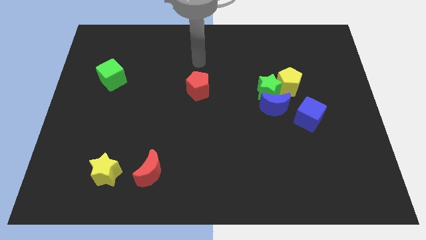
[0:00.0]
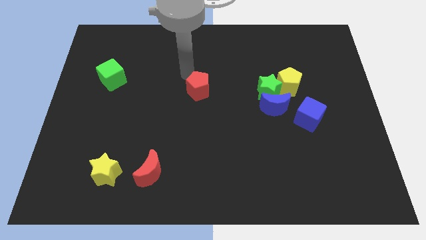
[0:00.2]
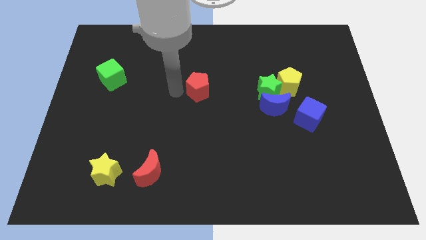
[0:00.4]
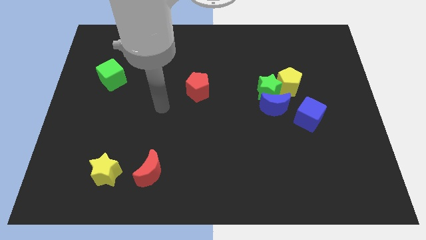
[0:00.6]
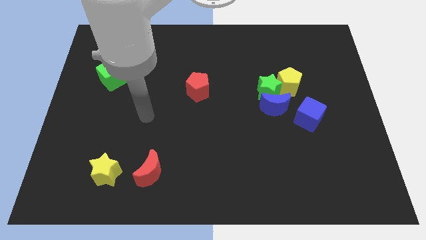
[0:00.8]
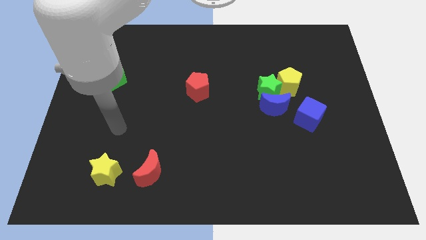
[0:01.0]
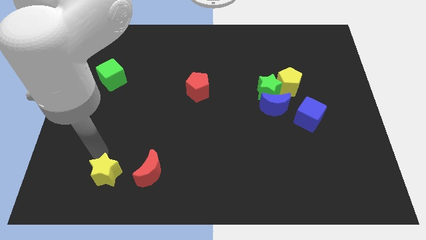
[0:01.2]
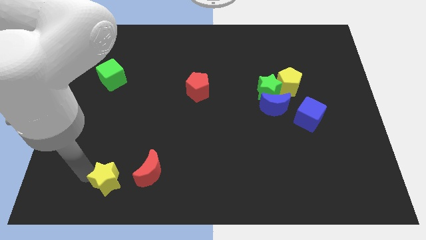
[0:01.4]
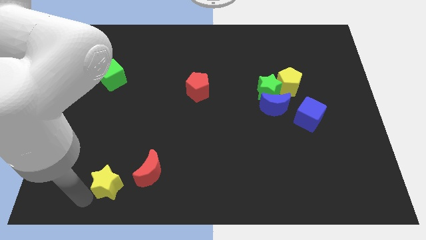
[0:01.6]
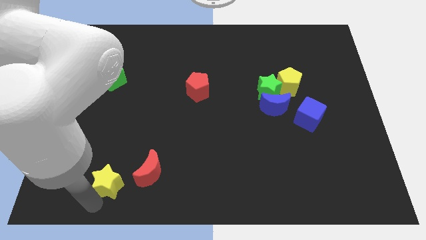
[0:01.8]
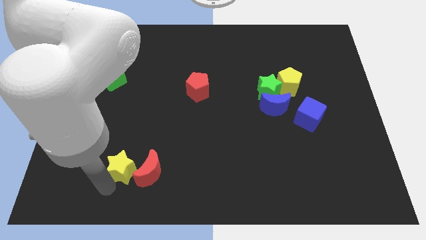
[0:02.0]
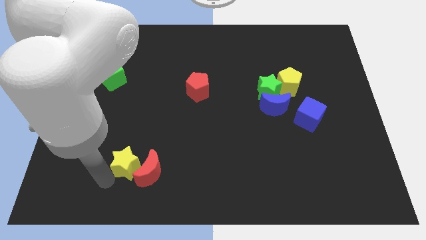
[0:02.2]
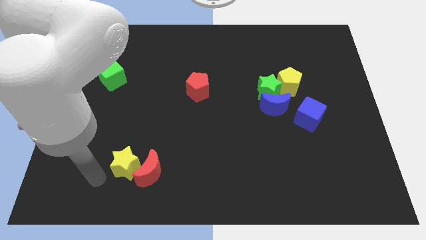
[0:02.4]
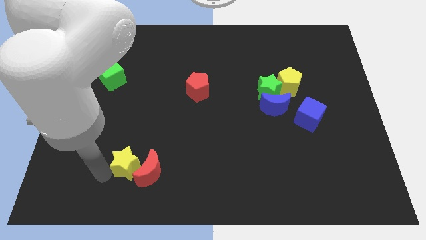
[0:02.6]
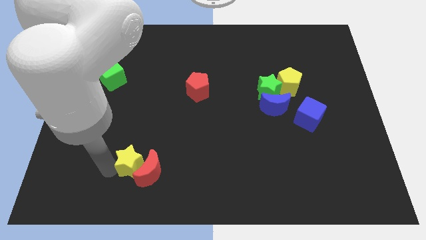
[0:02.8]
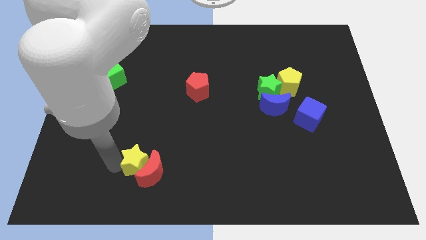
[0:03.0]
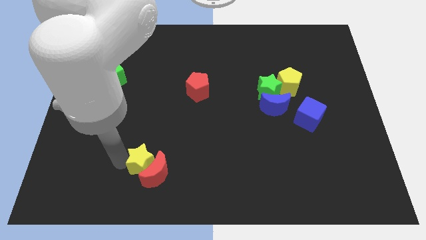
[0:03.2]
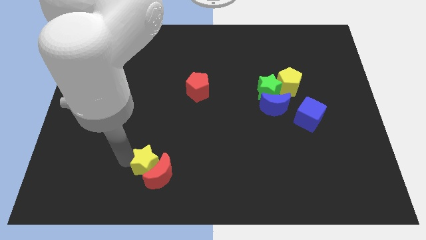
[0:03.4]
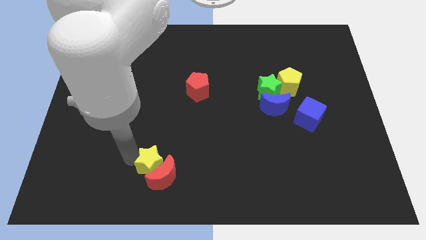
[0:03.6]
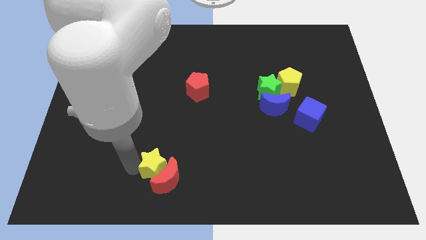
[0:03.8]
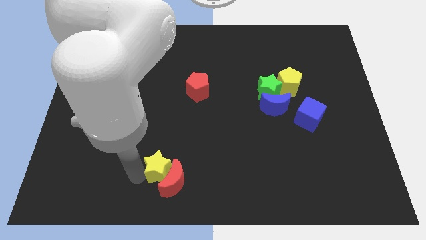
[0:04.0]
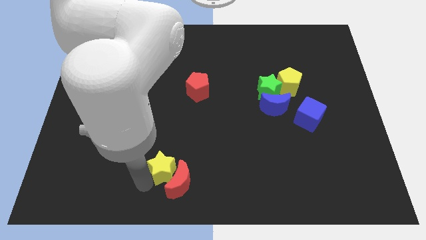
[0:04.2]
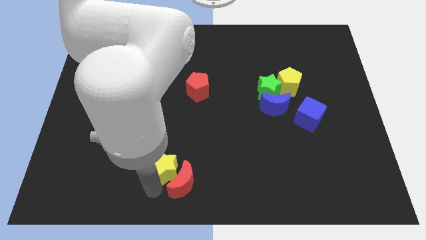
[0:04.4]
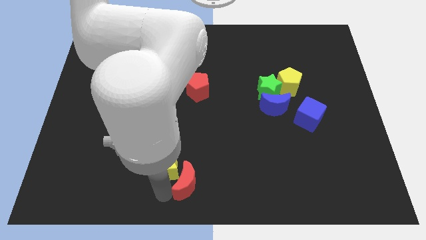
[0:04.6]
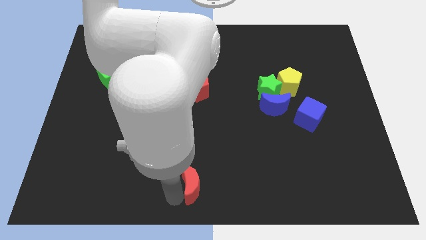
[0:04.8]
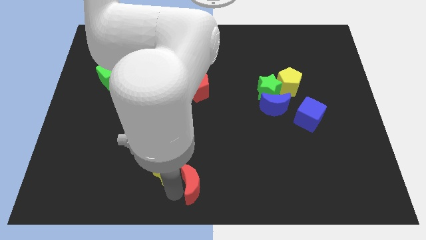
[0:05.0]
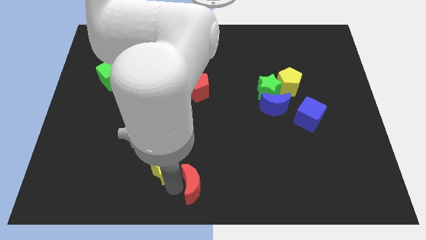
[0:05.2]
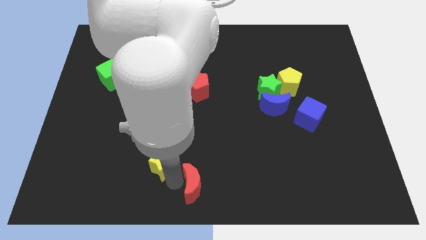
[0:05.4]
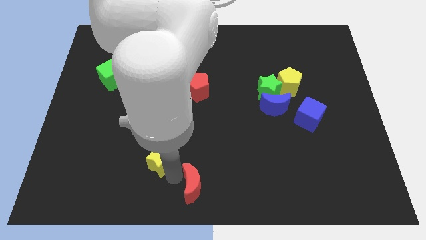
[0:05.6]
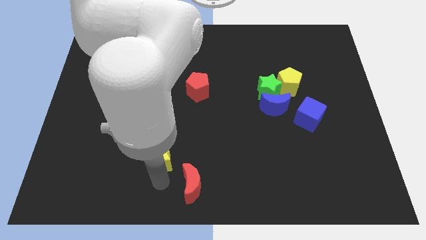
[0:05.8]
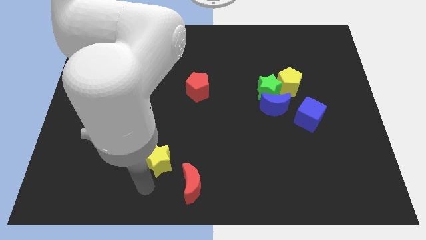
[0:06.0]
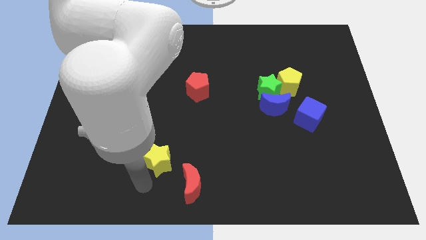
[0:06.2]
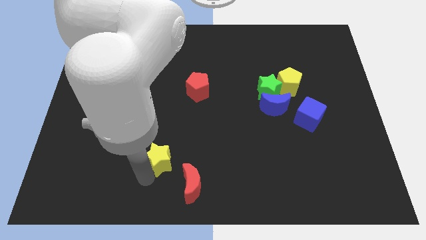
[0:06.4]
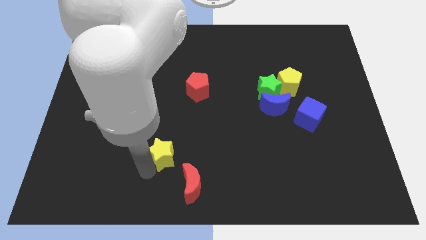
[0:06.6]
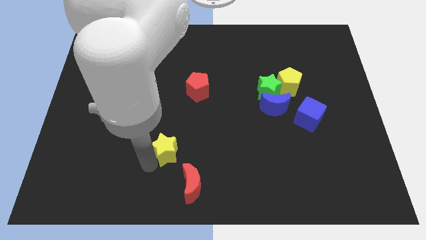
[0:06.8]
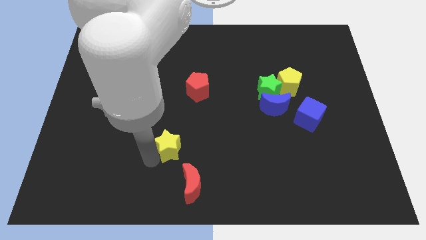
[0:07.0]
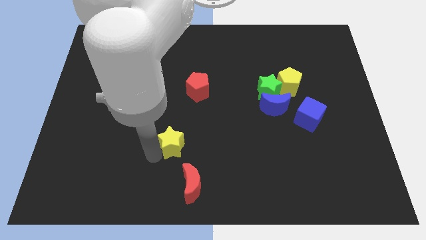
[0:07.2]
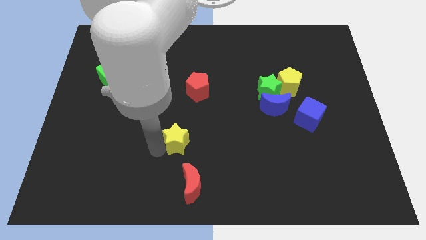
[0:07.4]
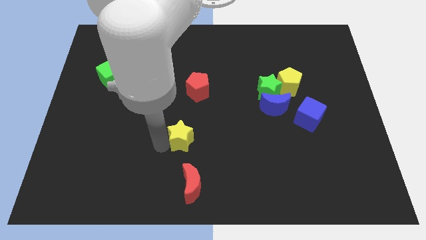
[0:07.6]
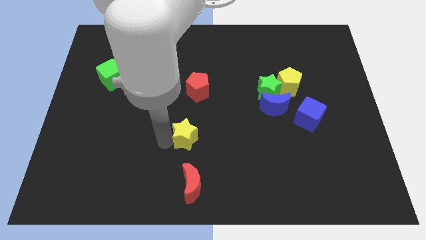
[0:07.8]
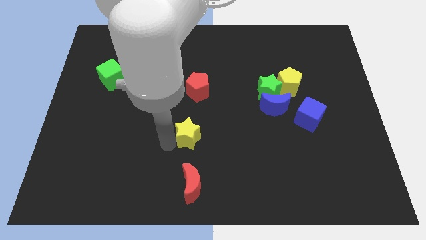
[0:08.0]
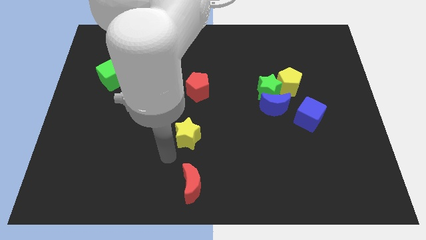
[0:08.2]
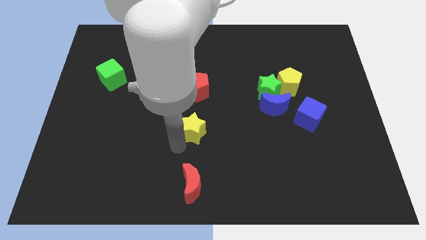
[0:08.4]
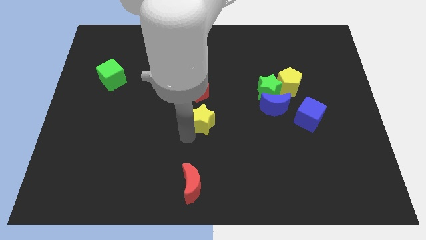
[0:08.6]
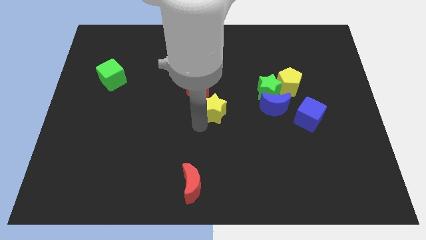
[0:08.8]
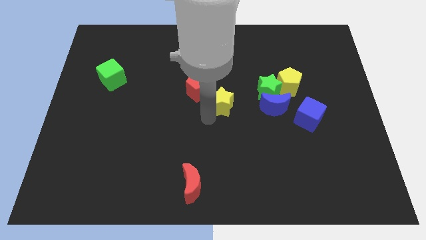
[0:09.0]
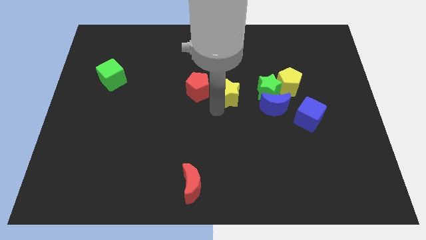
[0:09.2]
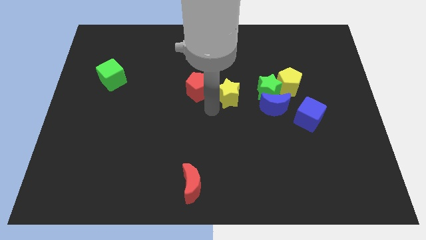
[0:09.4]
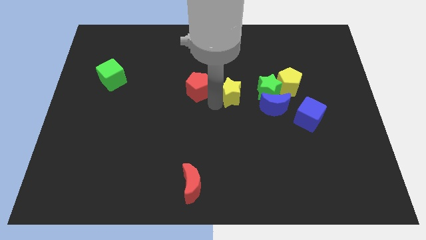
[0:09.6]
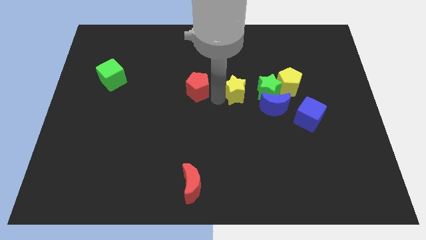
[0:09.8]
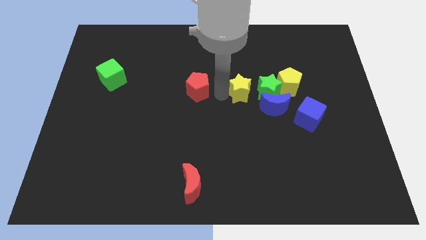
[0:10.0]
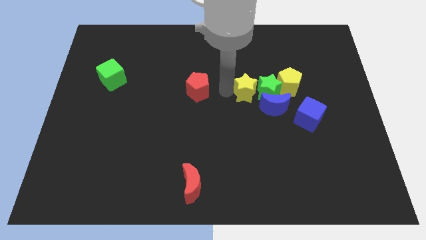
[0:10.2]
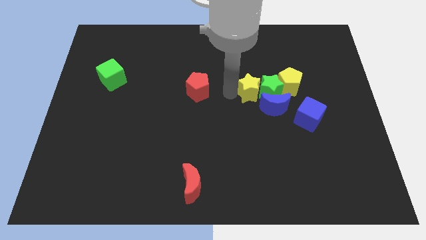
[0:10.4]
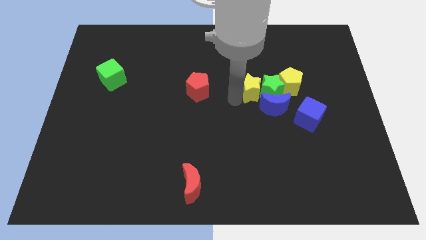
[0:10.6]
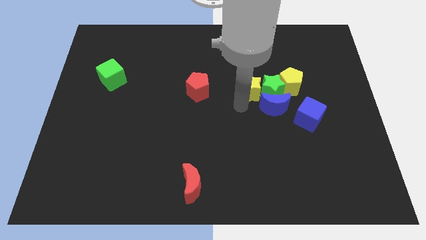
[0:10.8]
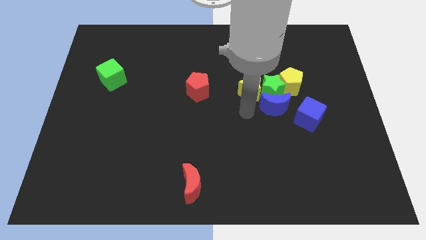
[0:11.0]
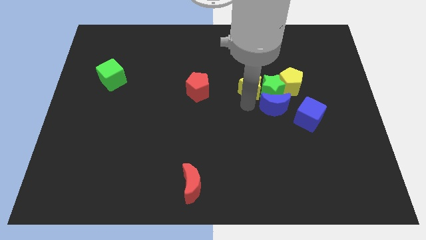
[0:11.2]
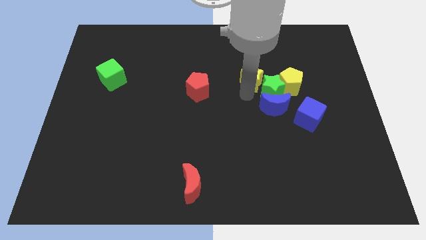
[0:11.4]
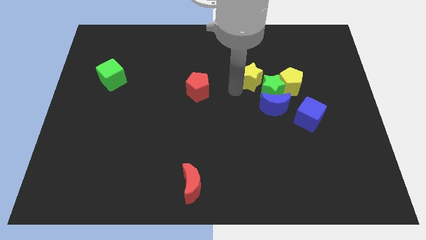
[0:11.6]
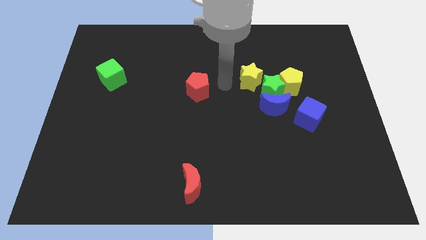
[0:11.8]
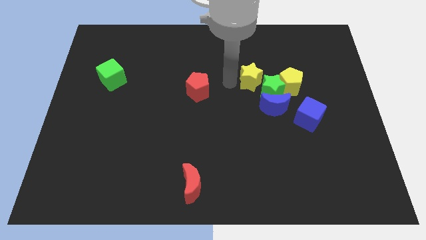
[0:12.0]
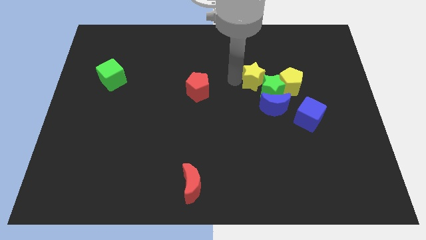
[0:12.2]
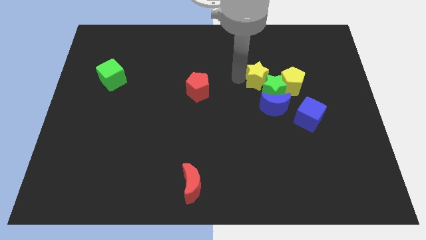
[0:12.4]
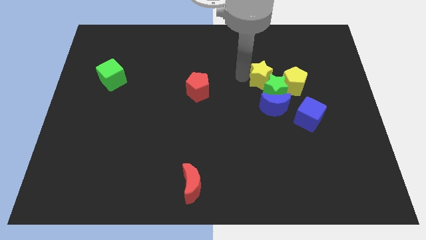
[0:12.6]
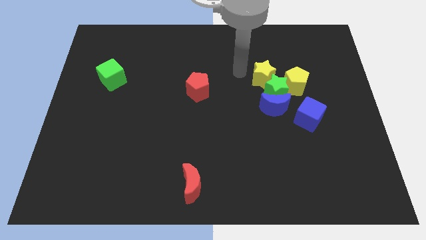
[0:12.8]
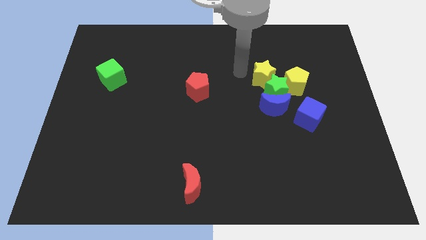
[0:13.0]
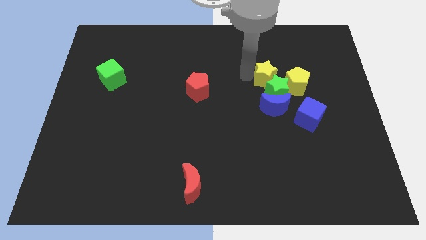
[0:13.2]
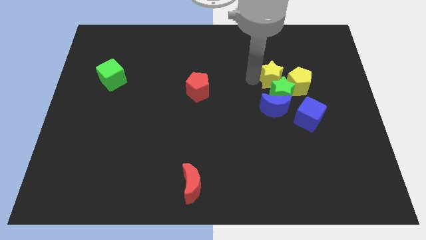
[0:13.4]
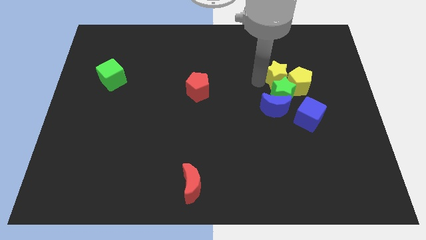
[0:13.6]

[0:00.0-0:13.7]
put the yellow star close to the yellow pentagon
